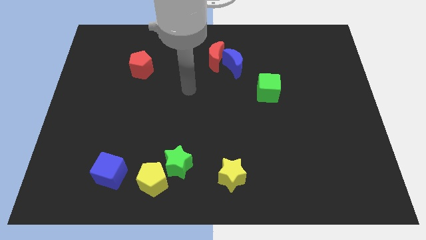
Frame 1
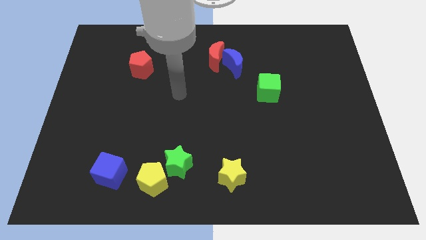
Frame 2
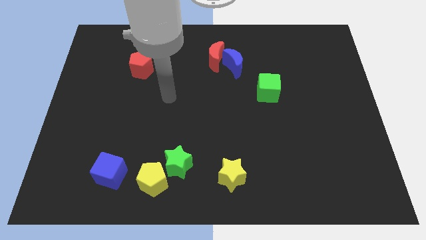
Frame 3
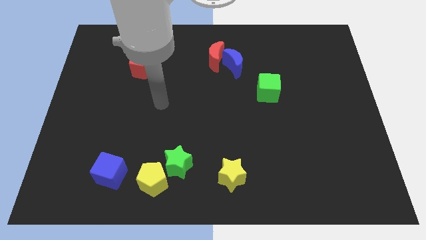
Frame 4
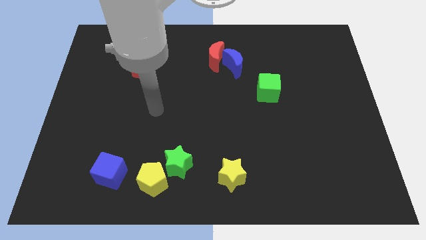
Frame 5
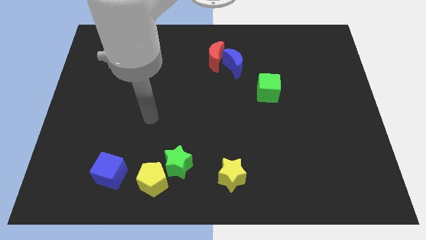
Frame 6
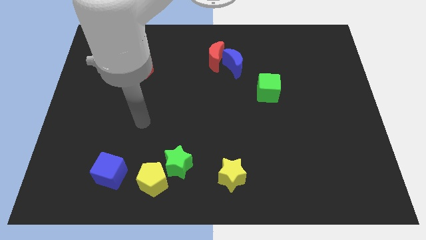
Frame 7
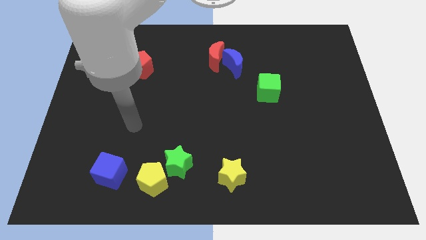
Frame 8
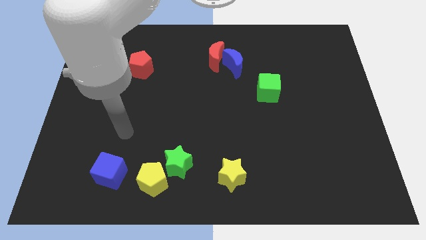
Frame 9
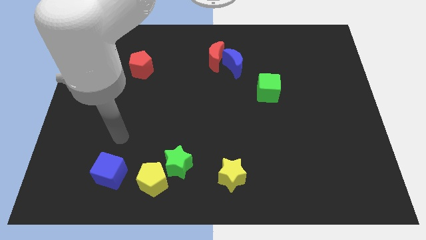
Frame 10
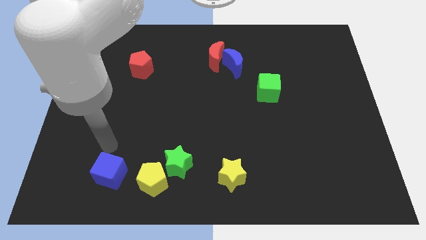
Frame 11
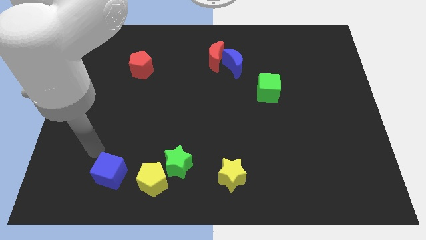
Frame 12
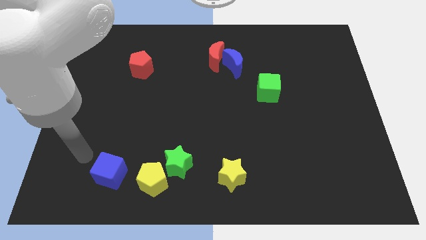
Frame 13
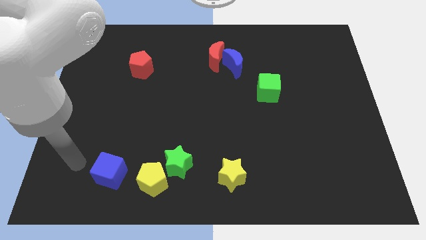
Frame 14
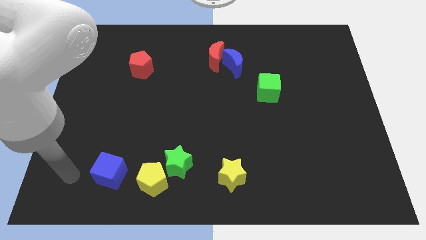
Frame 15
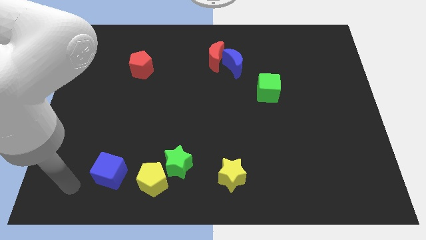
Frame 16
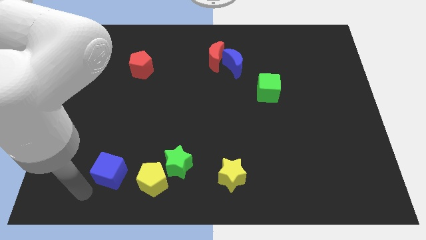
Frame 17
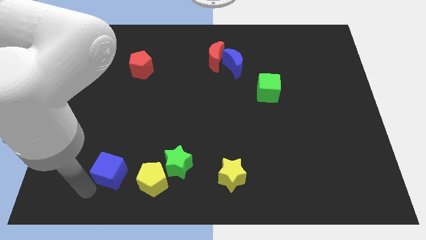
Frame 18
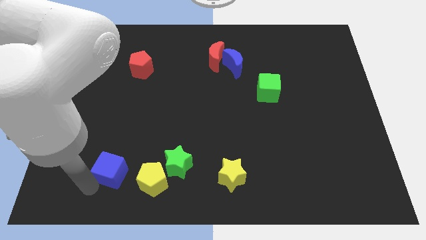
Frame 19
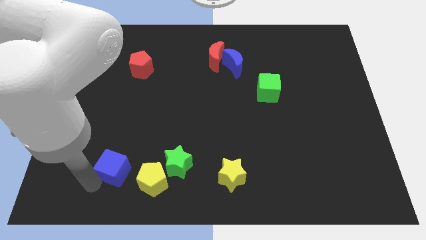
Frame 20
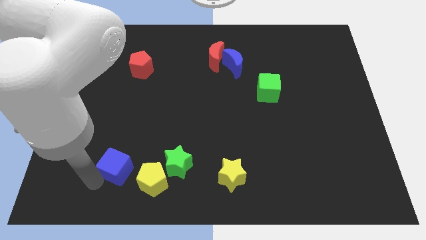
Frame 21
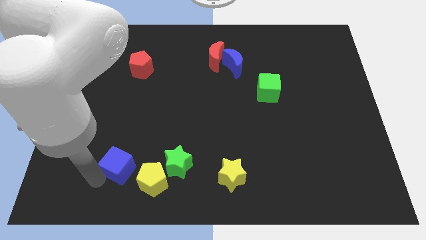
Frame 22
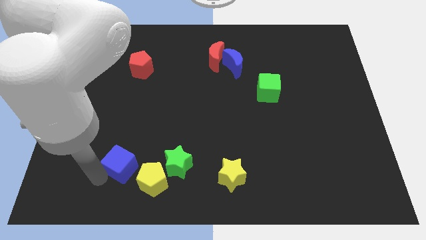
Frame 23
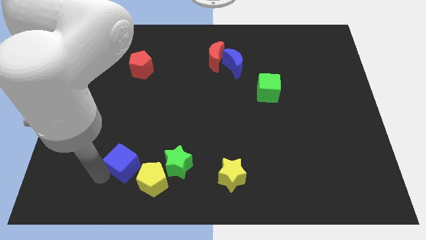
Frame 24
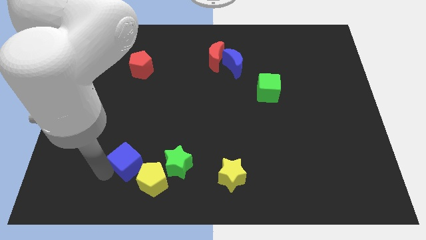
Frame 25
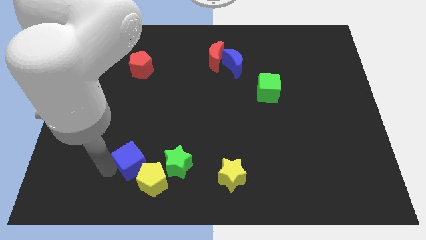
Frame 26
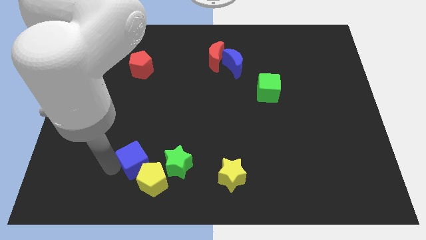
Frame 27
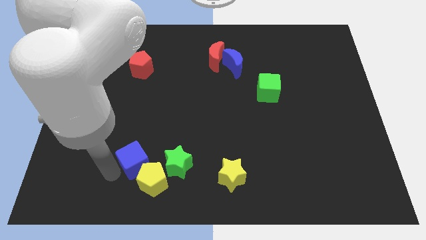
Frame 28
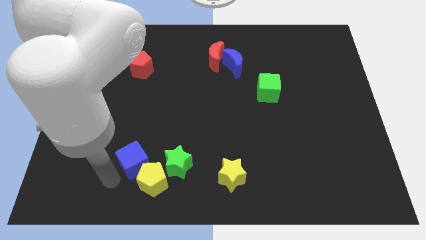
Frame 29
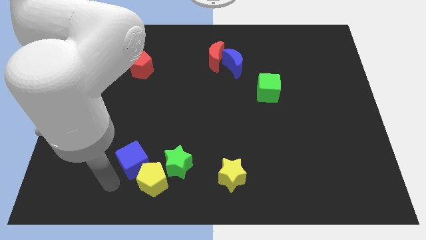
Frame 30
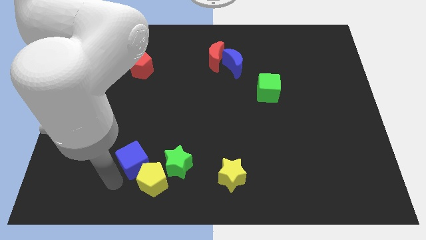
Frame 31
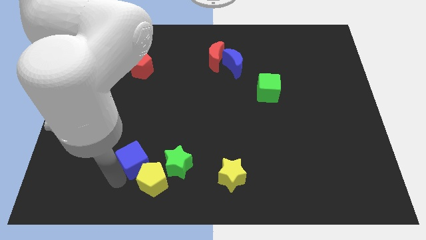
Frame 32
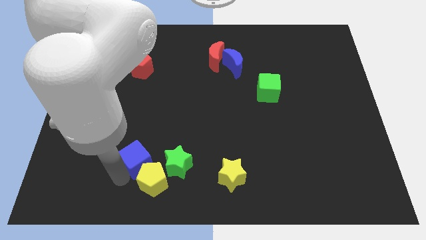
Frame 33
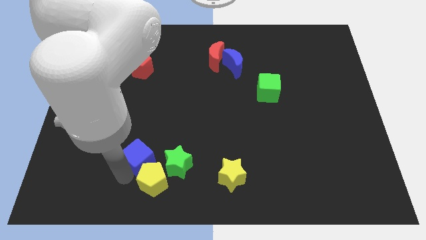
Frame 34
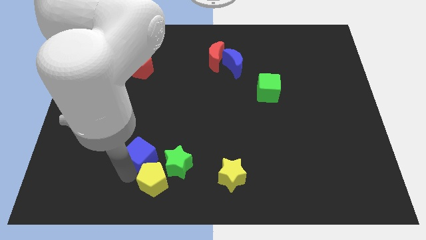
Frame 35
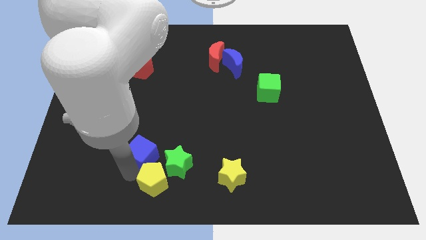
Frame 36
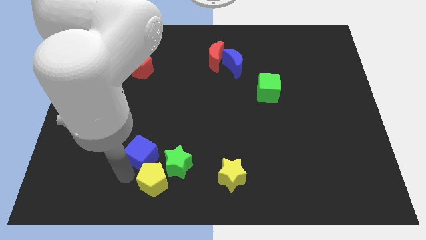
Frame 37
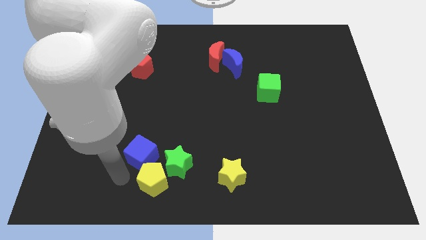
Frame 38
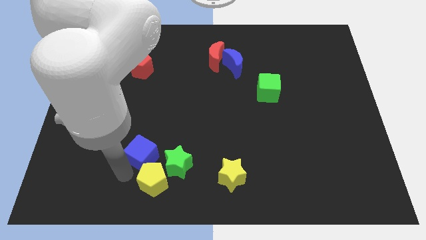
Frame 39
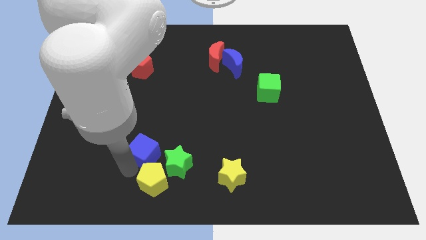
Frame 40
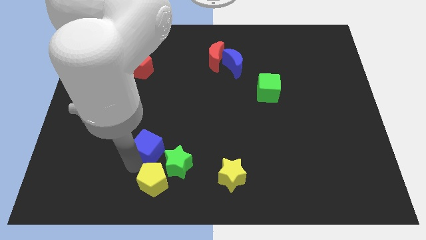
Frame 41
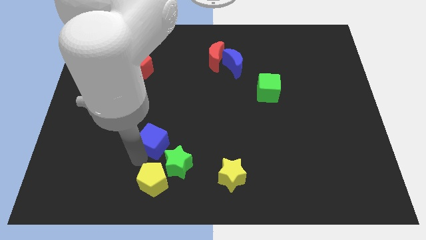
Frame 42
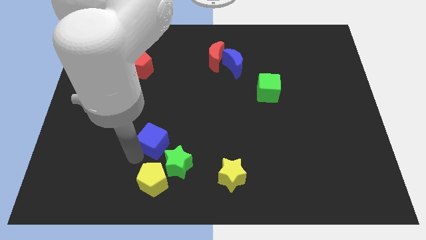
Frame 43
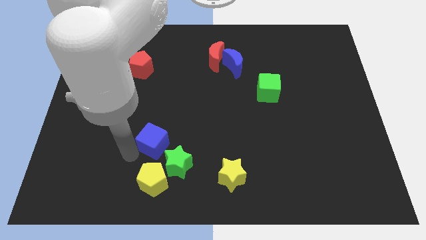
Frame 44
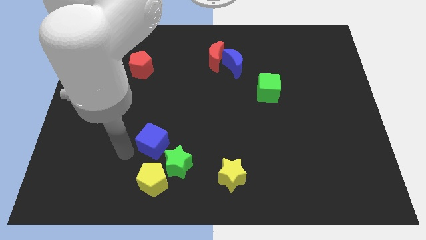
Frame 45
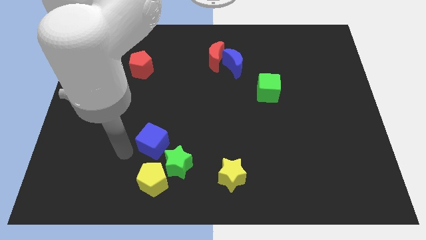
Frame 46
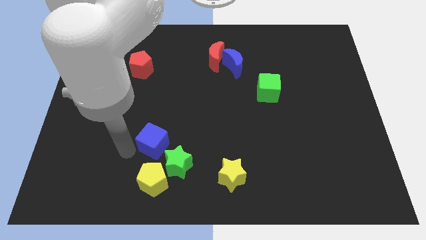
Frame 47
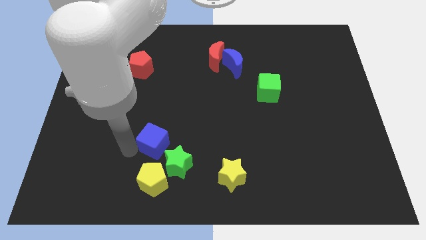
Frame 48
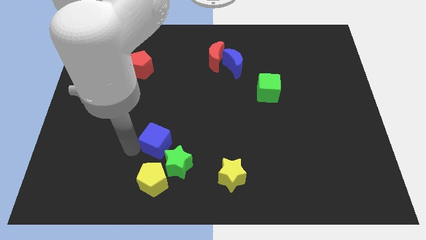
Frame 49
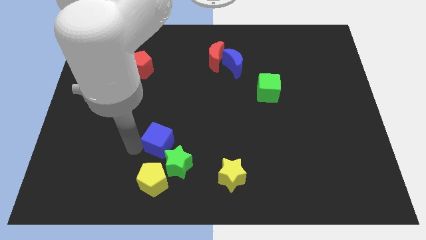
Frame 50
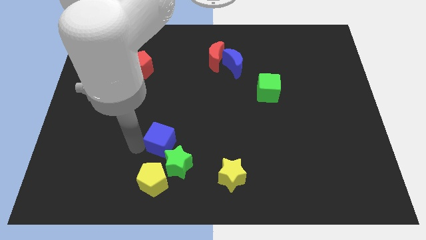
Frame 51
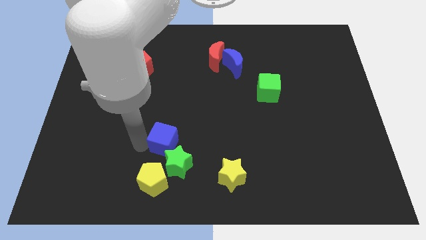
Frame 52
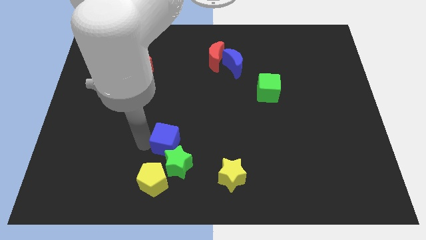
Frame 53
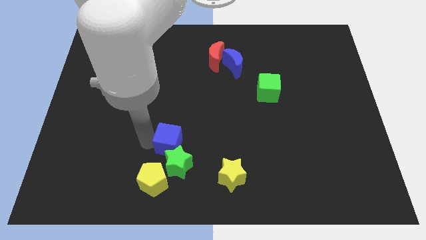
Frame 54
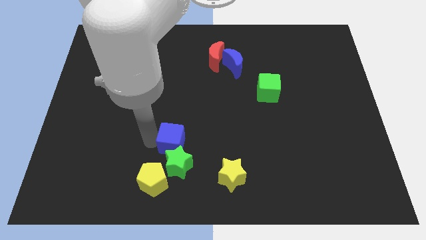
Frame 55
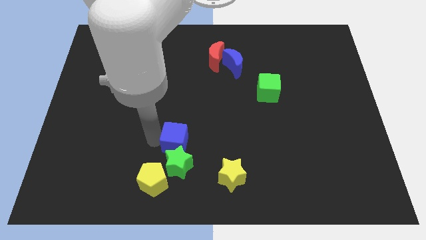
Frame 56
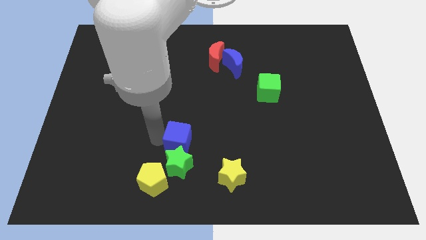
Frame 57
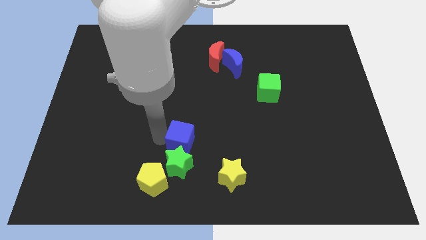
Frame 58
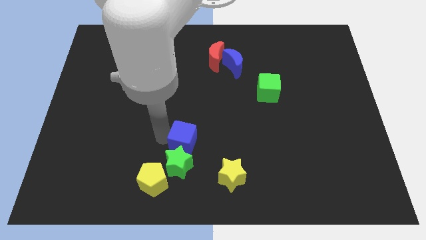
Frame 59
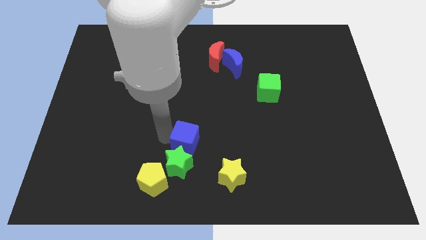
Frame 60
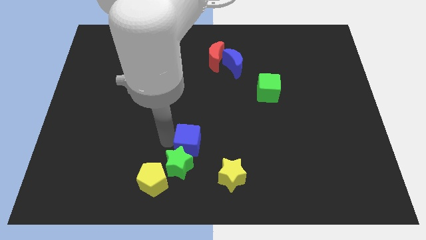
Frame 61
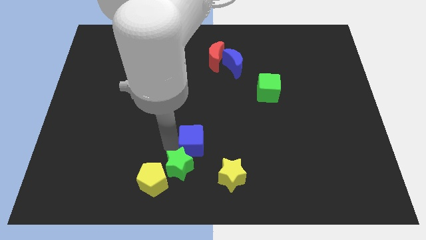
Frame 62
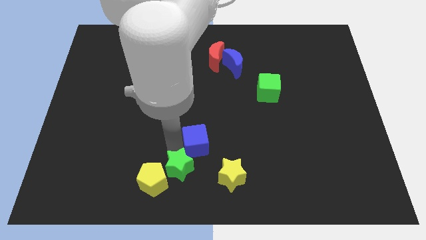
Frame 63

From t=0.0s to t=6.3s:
put the blue cube to the center of the board

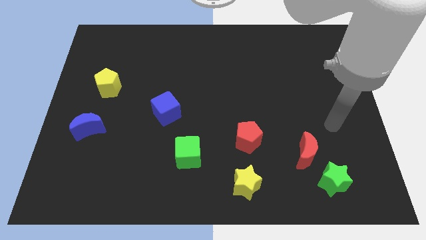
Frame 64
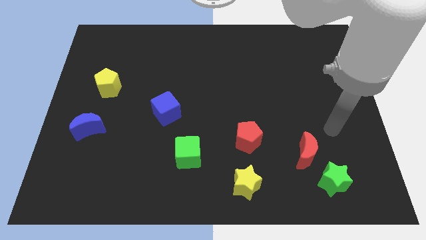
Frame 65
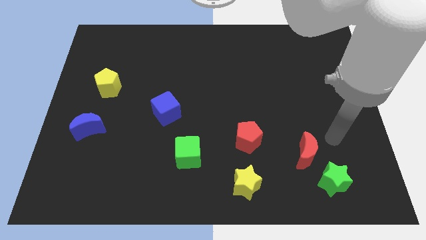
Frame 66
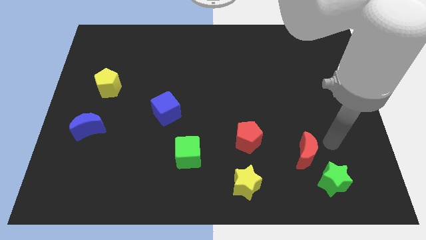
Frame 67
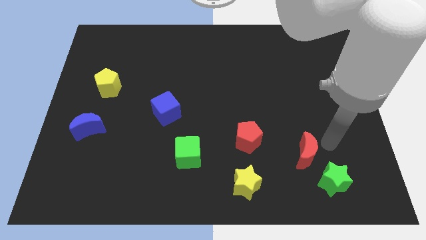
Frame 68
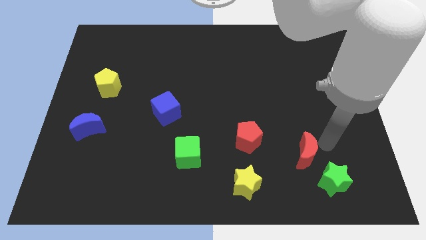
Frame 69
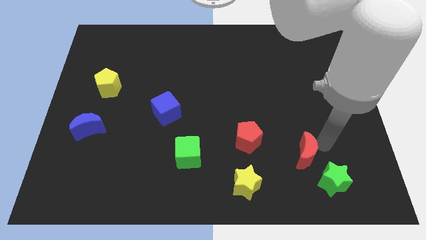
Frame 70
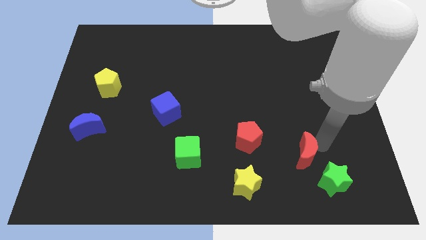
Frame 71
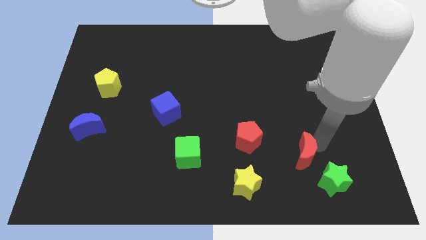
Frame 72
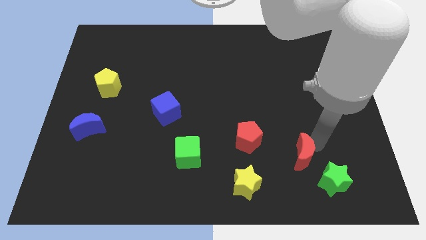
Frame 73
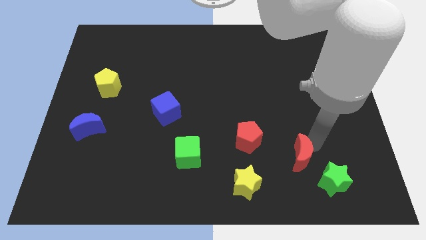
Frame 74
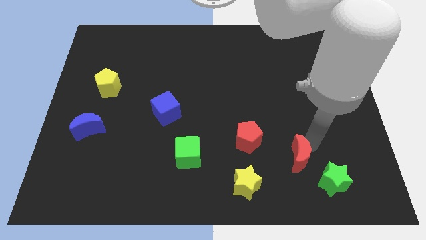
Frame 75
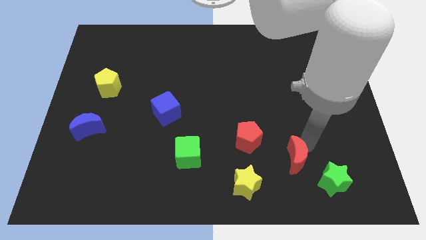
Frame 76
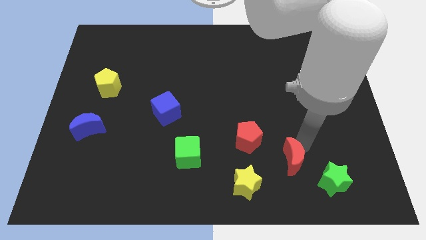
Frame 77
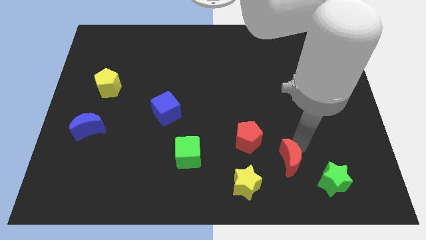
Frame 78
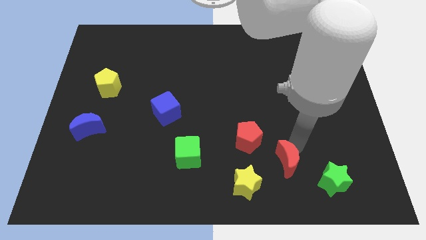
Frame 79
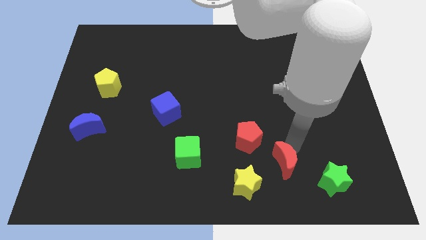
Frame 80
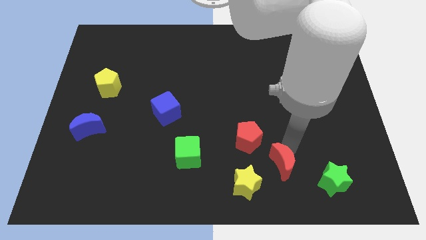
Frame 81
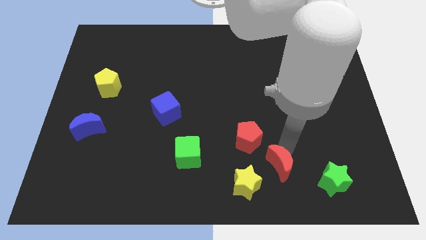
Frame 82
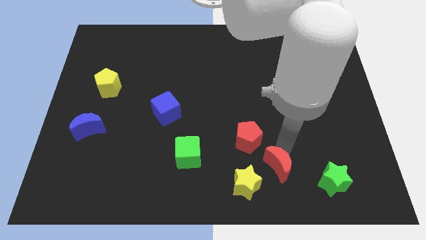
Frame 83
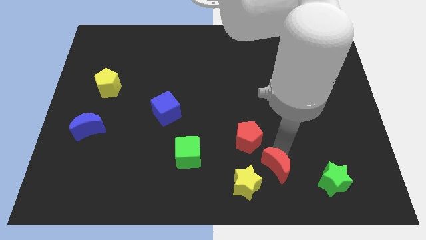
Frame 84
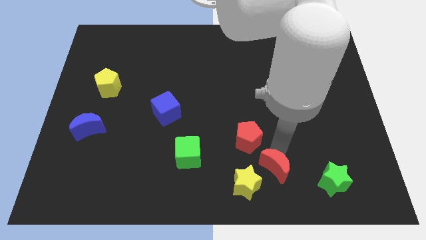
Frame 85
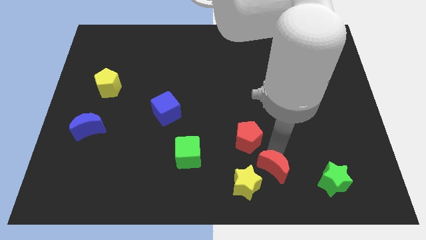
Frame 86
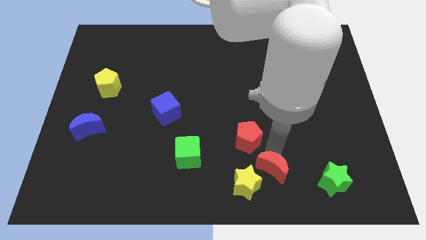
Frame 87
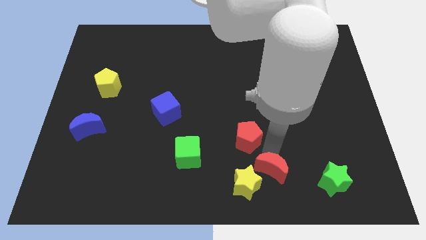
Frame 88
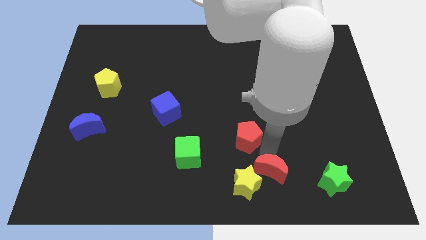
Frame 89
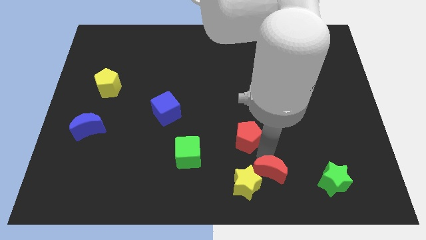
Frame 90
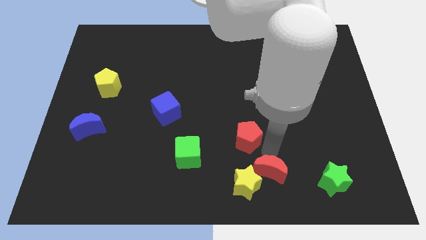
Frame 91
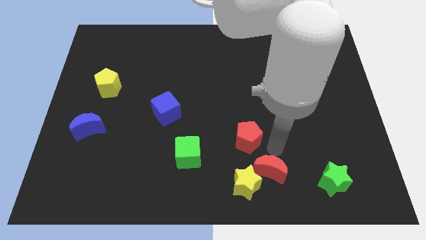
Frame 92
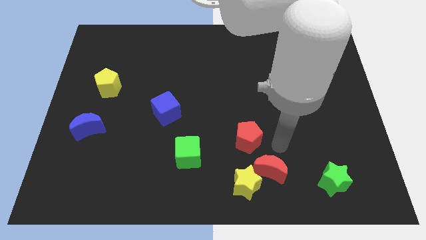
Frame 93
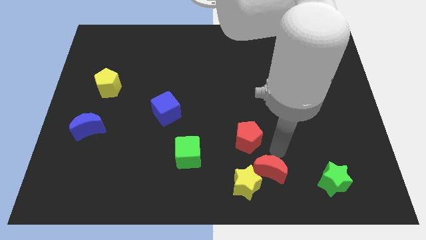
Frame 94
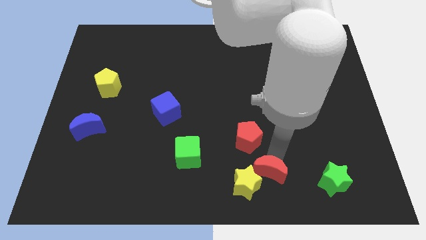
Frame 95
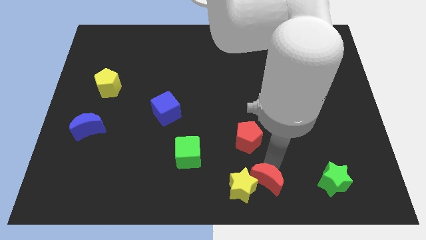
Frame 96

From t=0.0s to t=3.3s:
slide the red moon to the bottom
